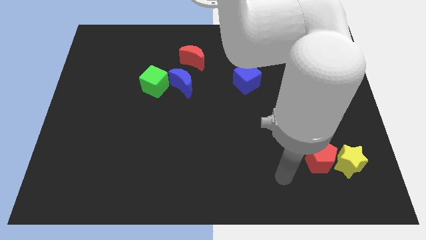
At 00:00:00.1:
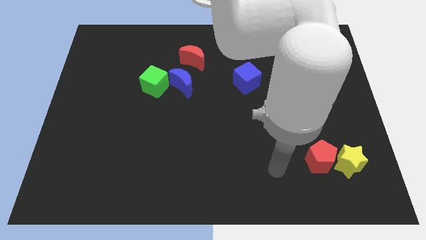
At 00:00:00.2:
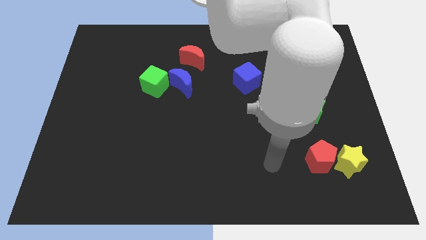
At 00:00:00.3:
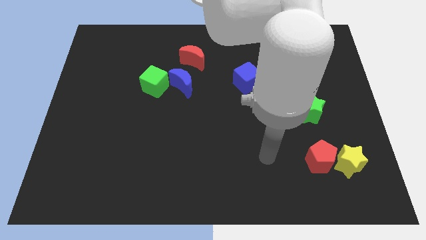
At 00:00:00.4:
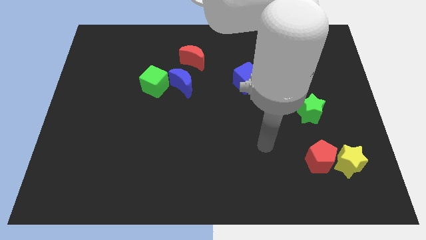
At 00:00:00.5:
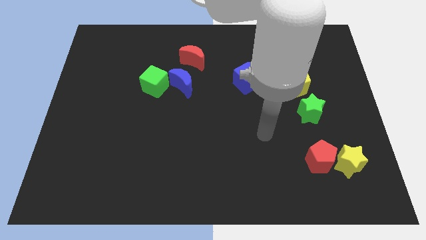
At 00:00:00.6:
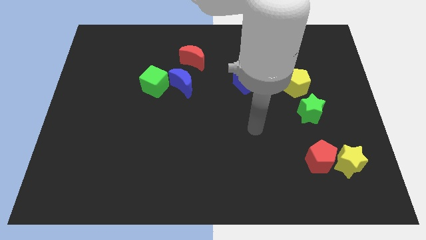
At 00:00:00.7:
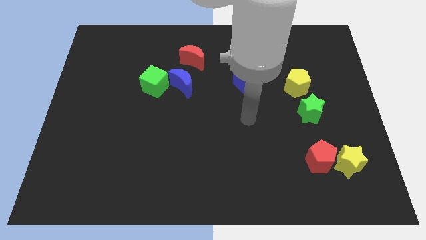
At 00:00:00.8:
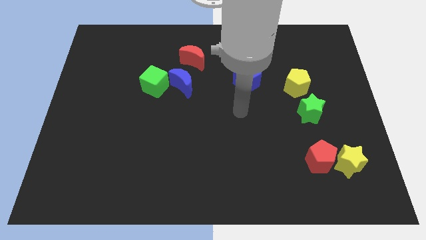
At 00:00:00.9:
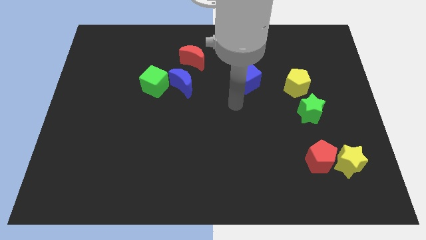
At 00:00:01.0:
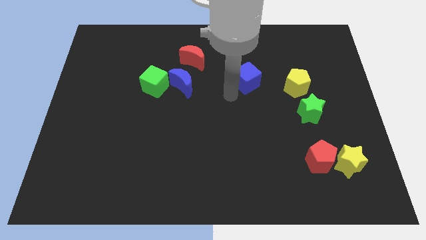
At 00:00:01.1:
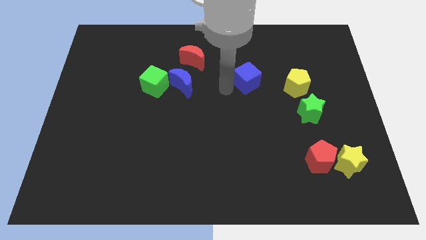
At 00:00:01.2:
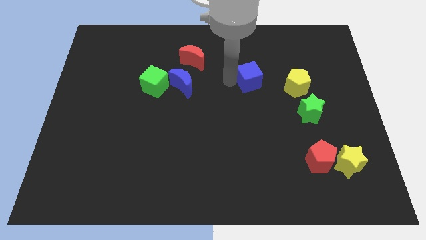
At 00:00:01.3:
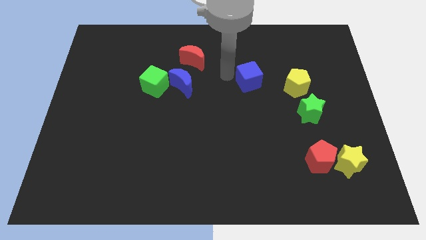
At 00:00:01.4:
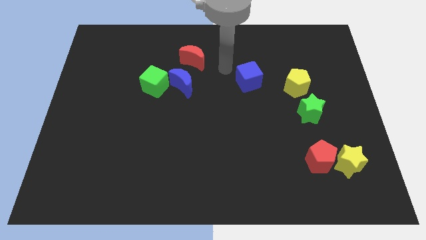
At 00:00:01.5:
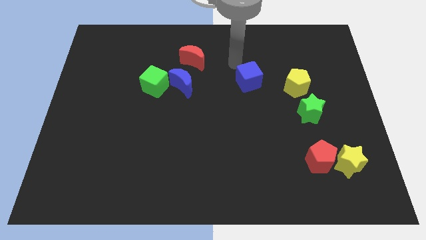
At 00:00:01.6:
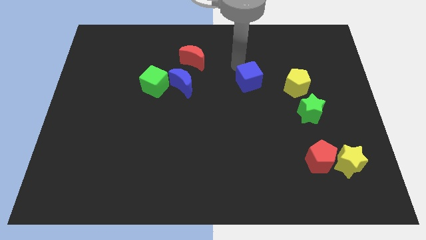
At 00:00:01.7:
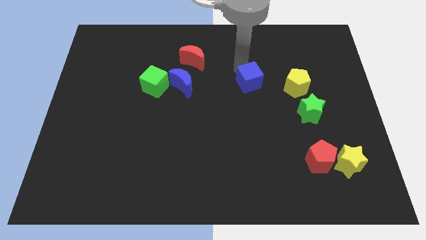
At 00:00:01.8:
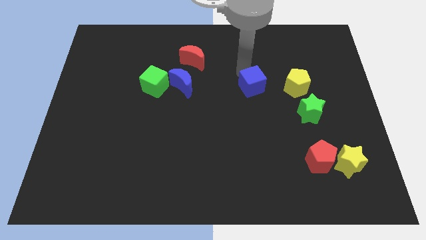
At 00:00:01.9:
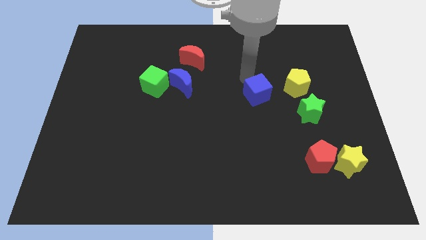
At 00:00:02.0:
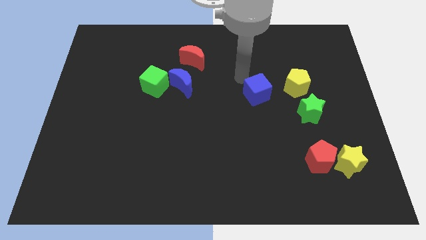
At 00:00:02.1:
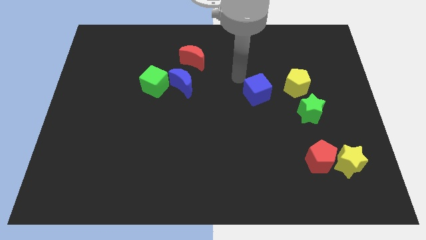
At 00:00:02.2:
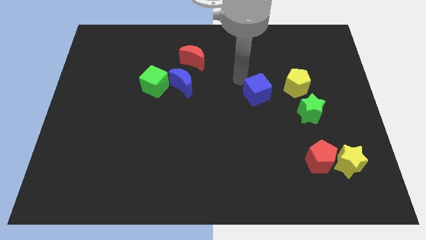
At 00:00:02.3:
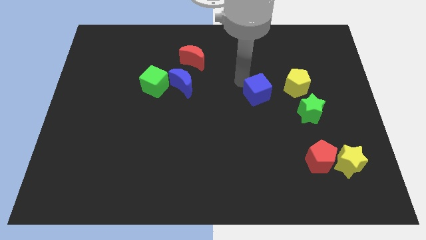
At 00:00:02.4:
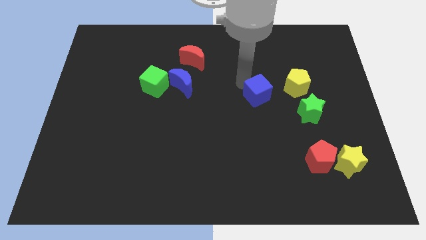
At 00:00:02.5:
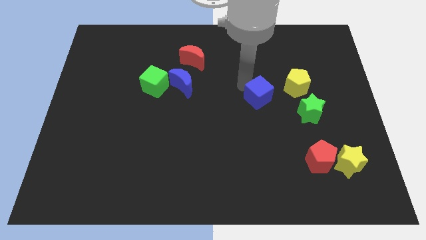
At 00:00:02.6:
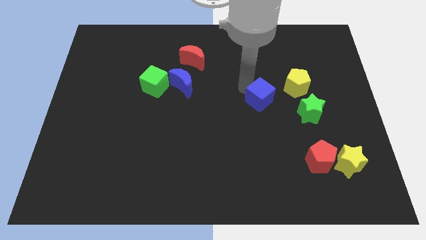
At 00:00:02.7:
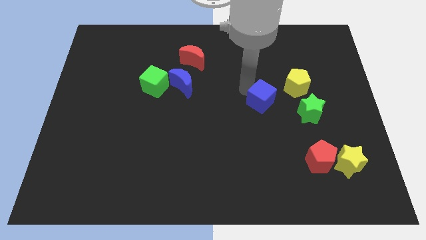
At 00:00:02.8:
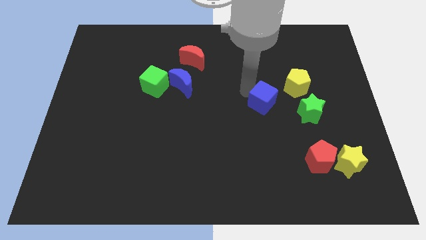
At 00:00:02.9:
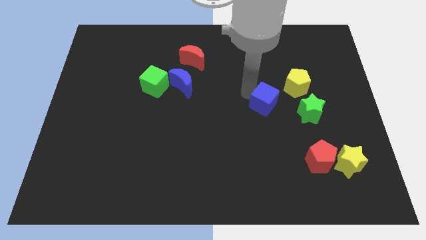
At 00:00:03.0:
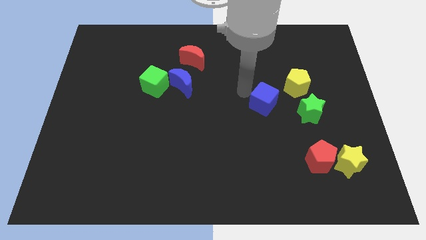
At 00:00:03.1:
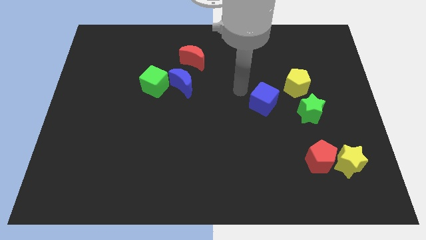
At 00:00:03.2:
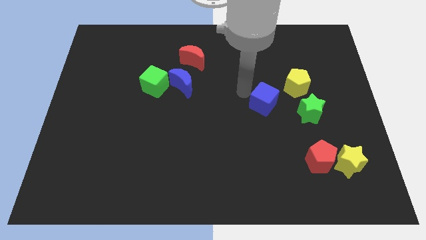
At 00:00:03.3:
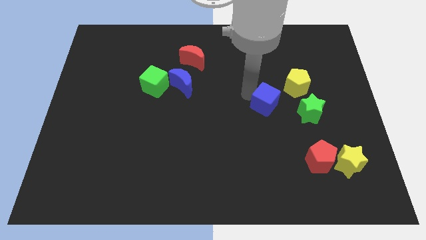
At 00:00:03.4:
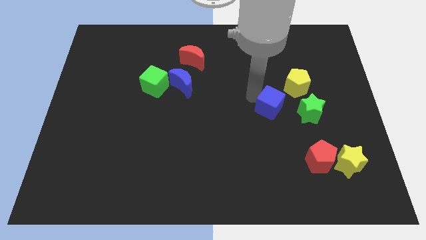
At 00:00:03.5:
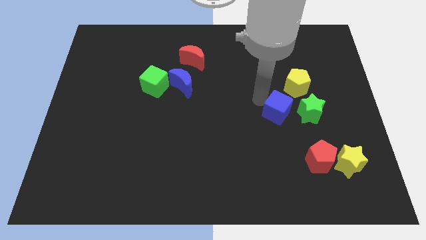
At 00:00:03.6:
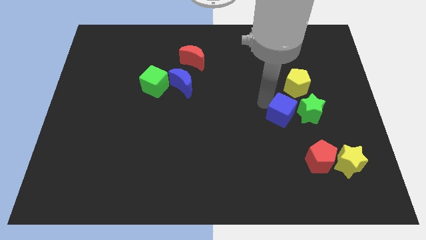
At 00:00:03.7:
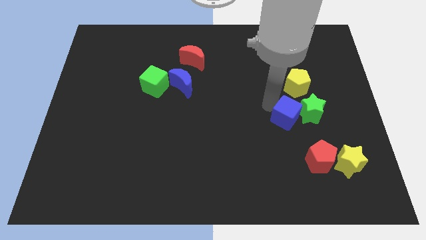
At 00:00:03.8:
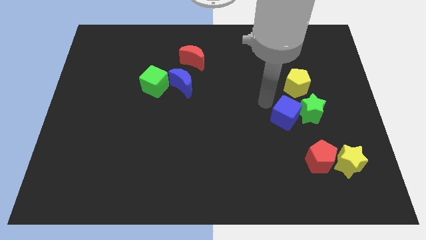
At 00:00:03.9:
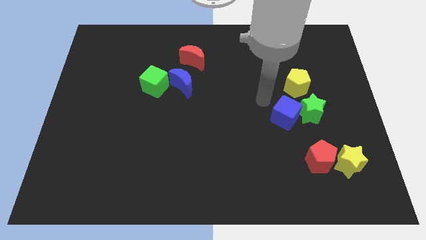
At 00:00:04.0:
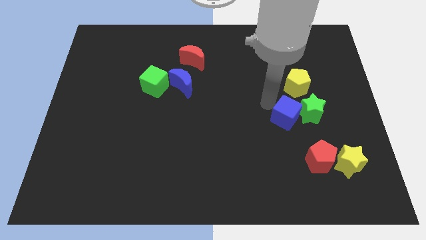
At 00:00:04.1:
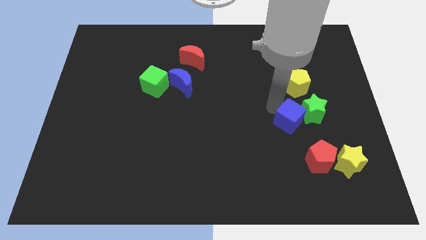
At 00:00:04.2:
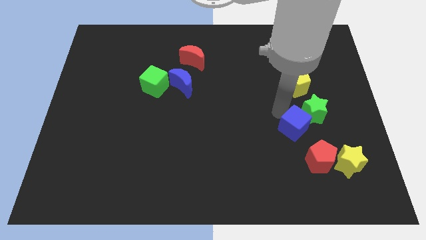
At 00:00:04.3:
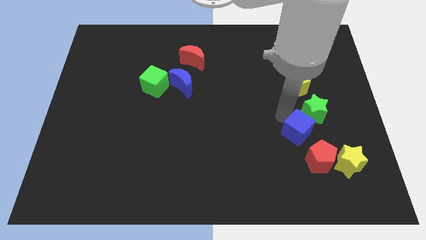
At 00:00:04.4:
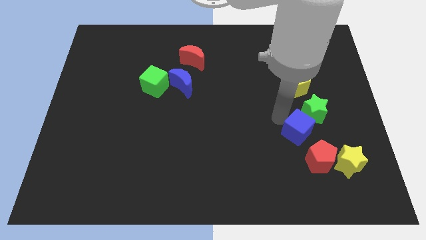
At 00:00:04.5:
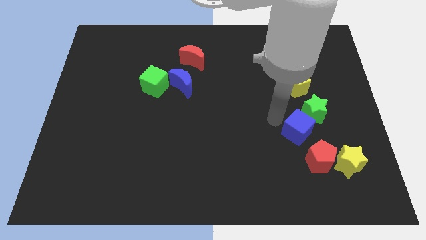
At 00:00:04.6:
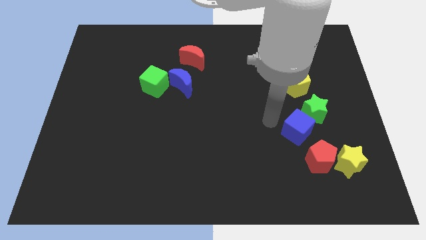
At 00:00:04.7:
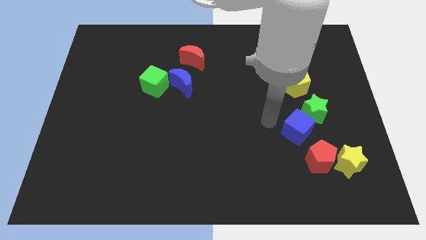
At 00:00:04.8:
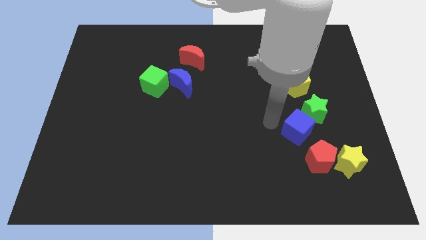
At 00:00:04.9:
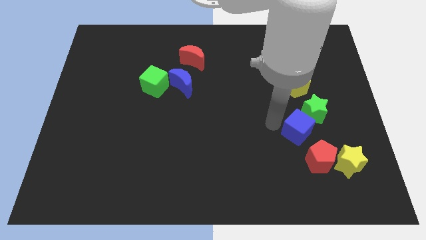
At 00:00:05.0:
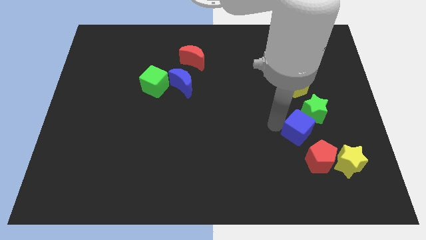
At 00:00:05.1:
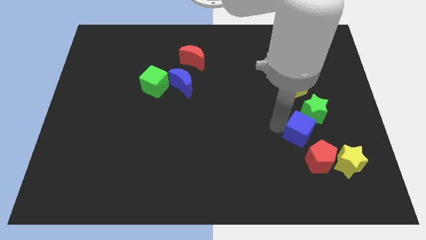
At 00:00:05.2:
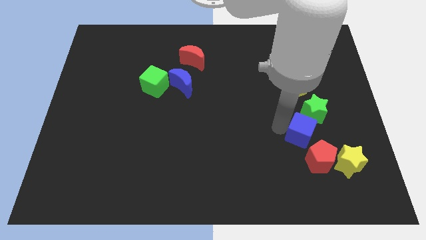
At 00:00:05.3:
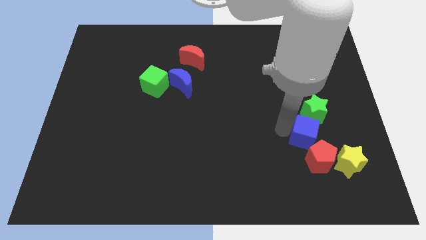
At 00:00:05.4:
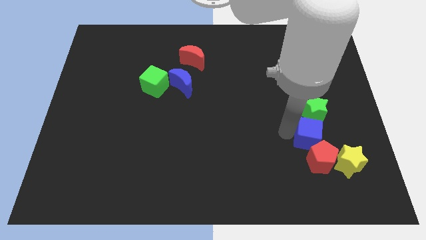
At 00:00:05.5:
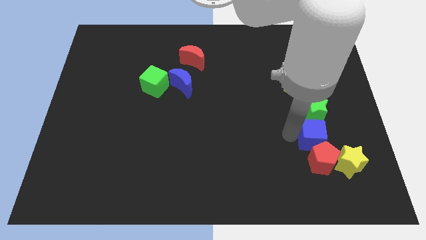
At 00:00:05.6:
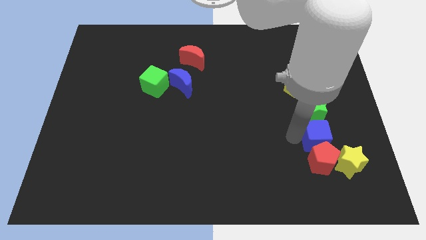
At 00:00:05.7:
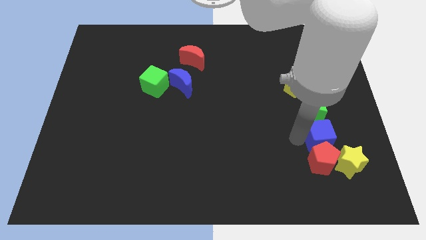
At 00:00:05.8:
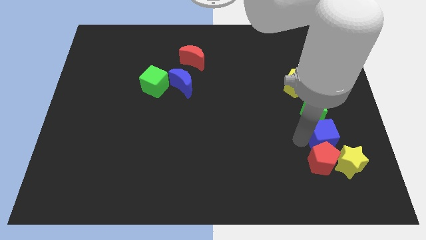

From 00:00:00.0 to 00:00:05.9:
put the blue cube to the top side of the yellow star

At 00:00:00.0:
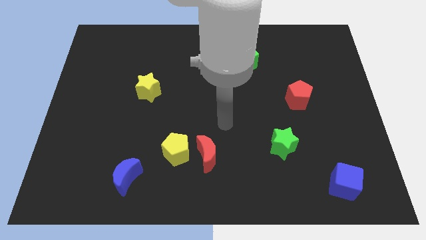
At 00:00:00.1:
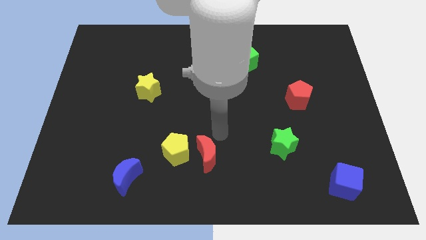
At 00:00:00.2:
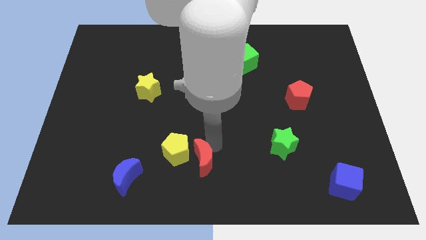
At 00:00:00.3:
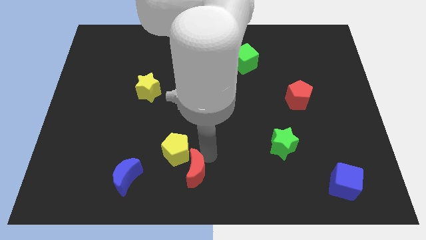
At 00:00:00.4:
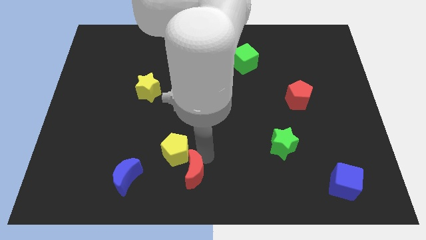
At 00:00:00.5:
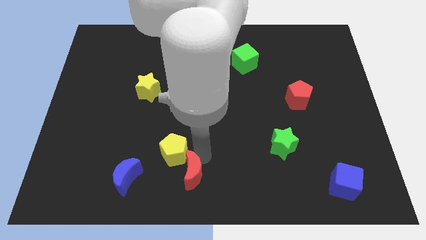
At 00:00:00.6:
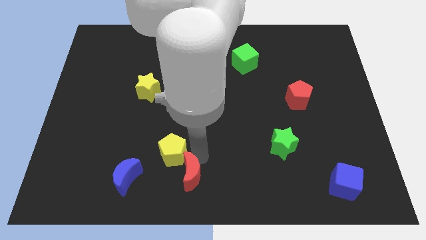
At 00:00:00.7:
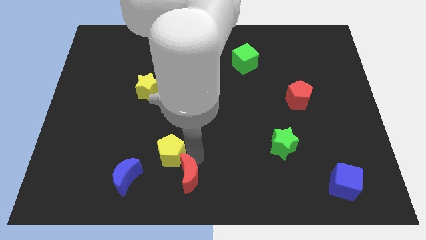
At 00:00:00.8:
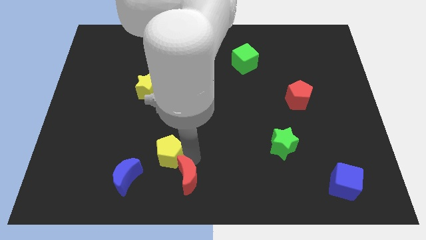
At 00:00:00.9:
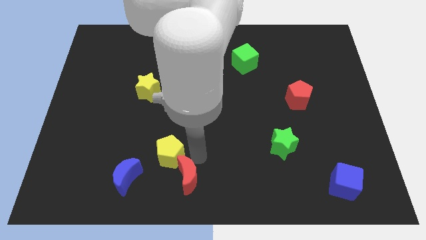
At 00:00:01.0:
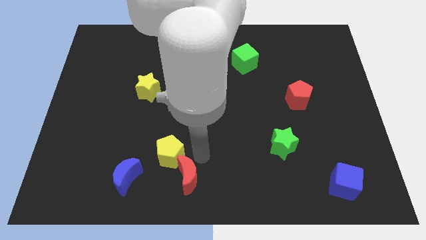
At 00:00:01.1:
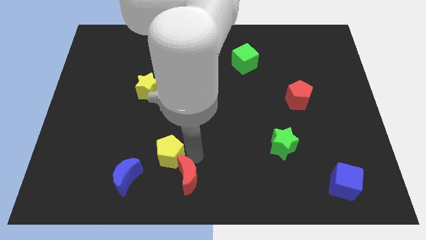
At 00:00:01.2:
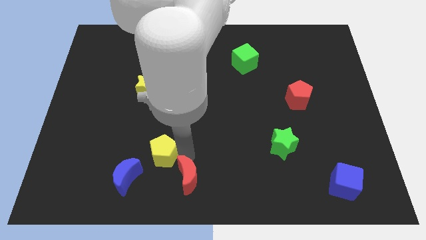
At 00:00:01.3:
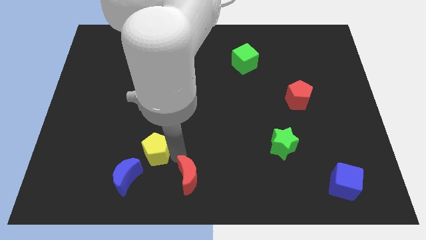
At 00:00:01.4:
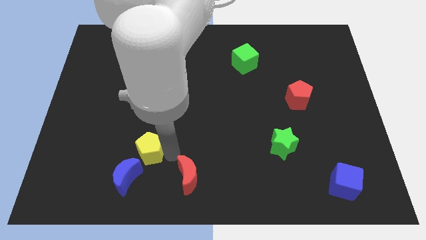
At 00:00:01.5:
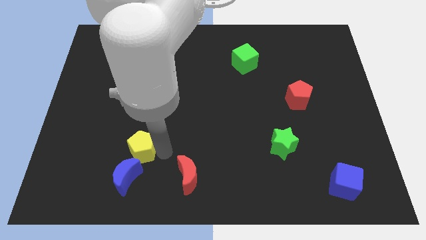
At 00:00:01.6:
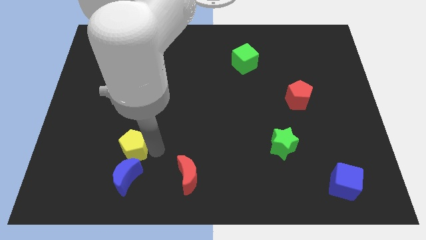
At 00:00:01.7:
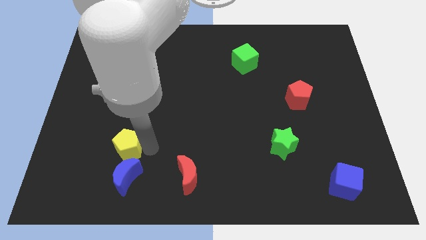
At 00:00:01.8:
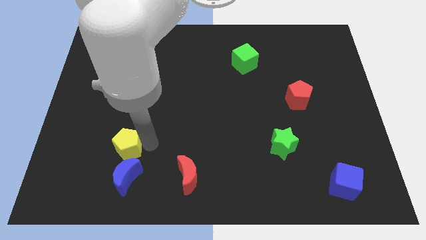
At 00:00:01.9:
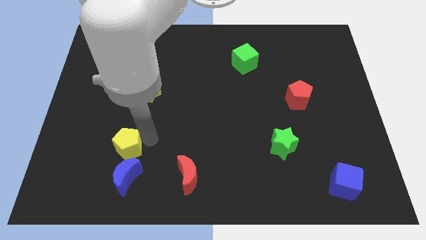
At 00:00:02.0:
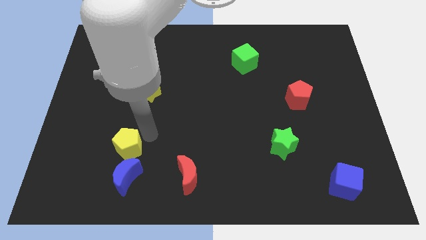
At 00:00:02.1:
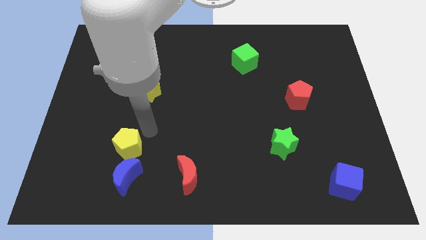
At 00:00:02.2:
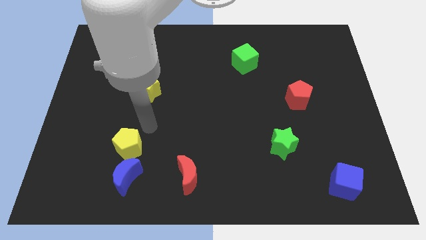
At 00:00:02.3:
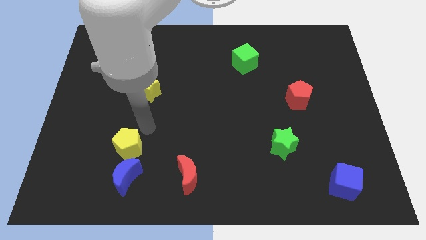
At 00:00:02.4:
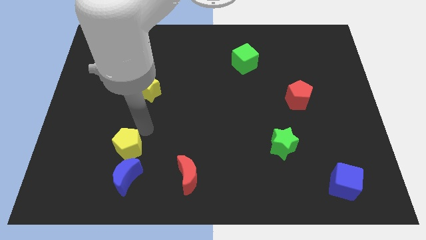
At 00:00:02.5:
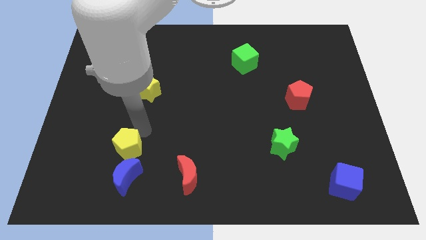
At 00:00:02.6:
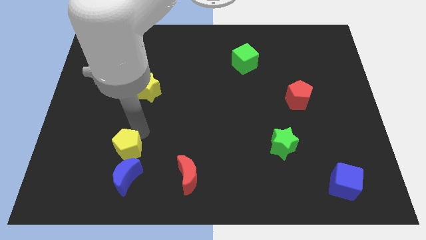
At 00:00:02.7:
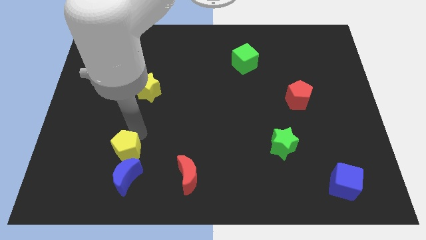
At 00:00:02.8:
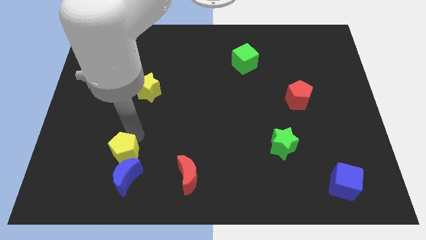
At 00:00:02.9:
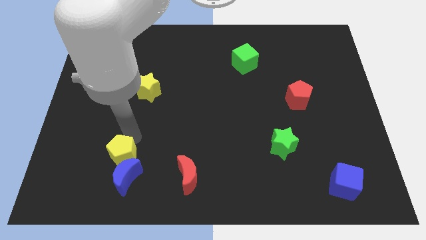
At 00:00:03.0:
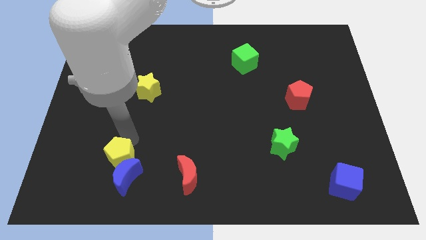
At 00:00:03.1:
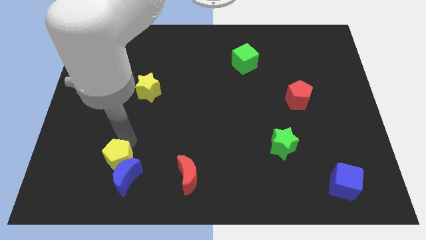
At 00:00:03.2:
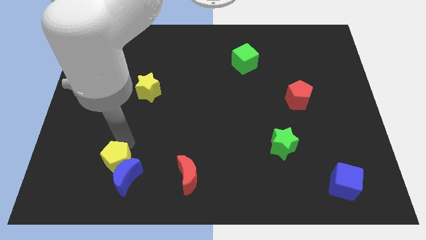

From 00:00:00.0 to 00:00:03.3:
slide the yellow pentagon just left of the blue moon
